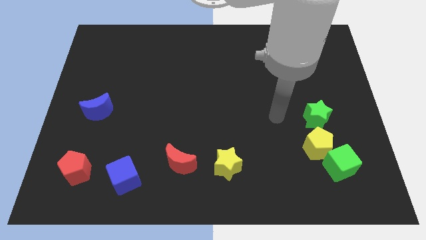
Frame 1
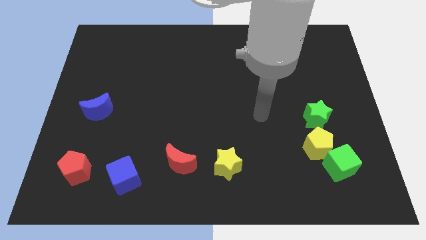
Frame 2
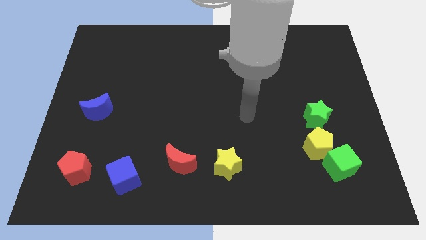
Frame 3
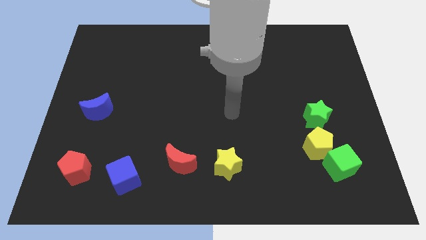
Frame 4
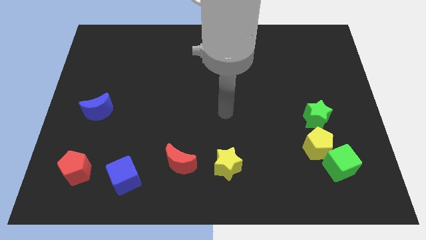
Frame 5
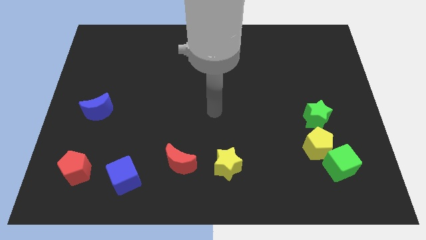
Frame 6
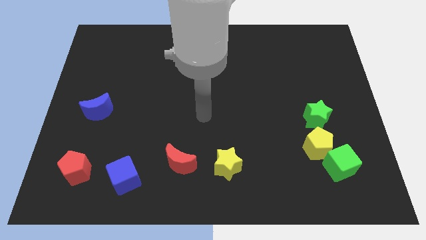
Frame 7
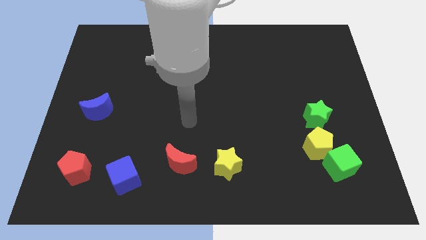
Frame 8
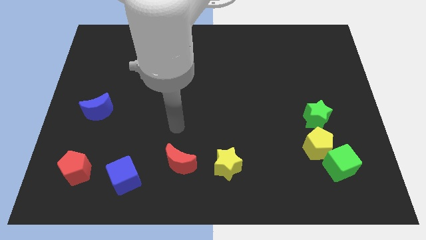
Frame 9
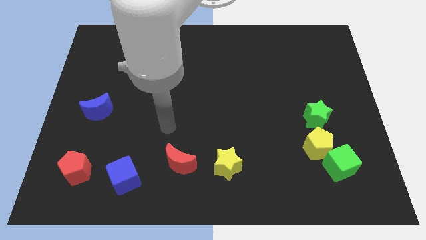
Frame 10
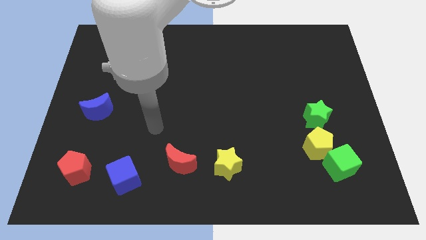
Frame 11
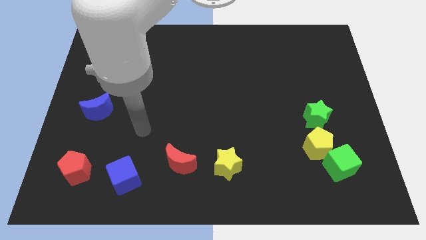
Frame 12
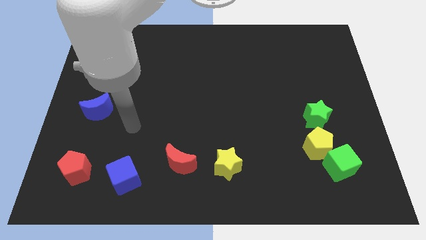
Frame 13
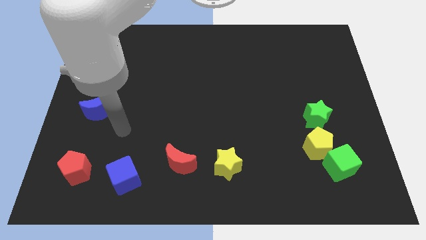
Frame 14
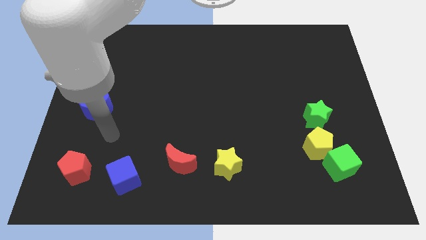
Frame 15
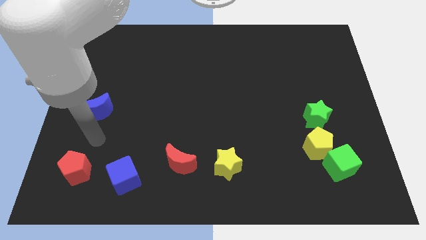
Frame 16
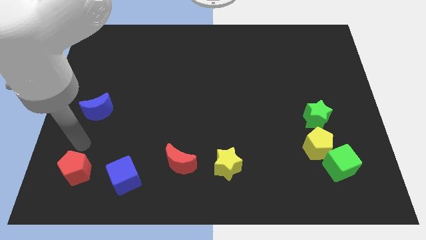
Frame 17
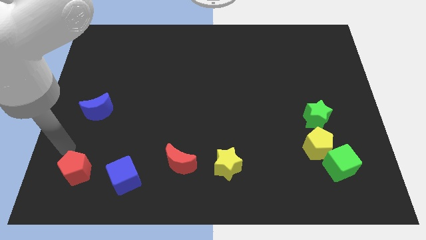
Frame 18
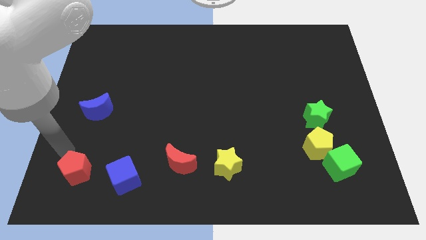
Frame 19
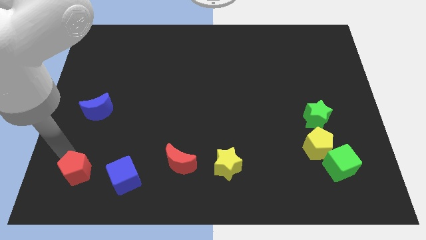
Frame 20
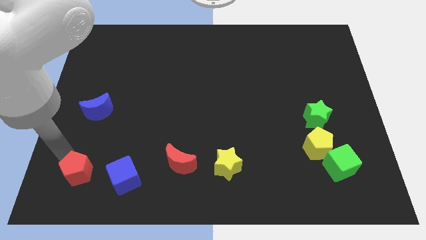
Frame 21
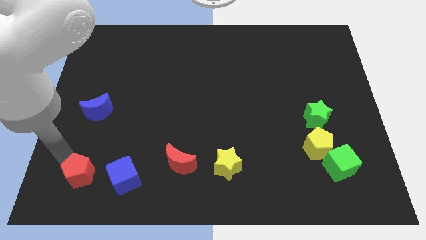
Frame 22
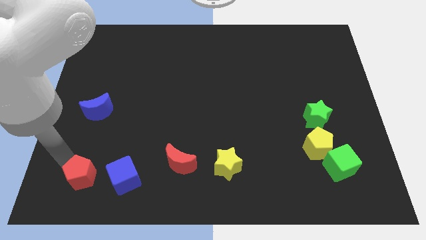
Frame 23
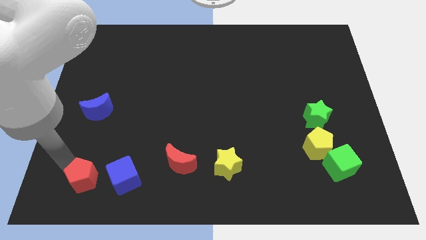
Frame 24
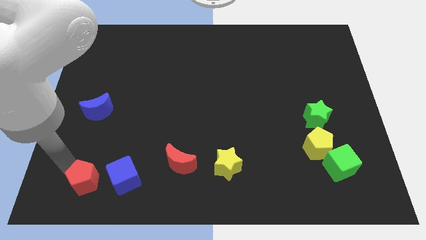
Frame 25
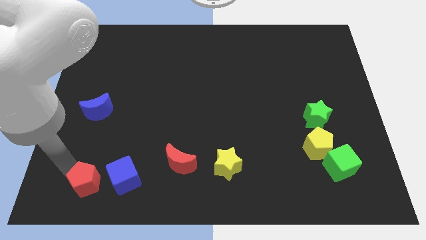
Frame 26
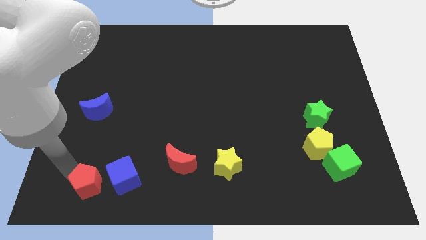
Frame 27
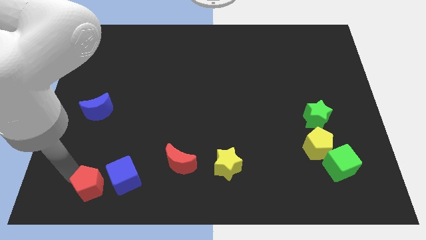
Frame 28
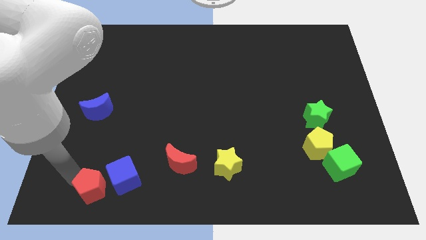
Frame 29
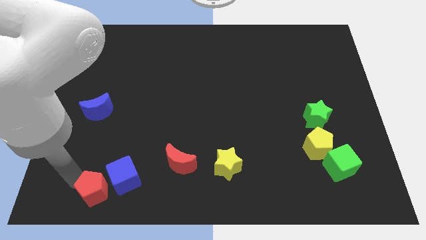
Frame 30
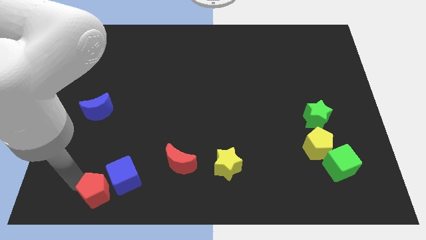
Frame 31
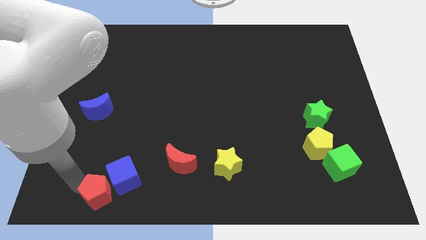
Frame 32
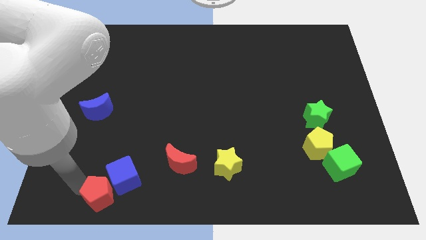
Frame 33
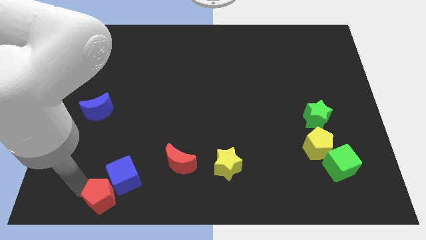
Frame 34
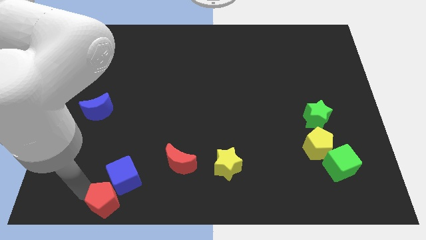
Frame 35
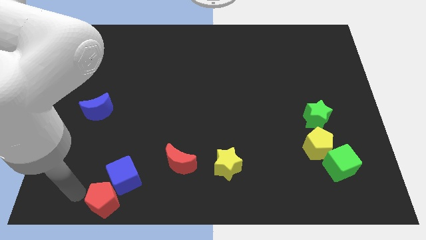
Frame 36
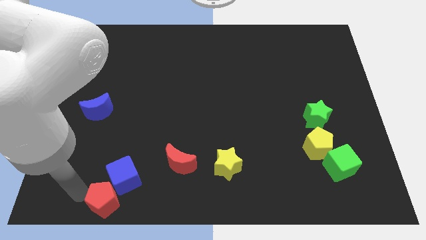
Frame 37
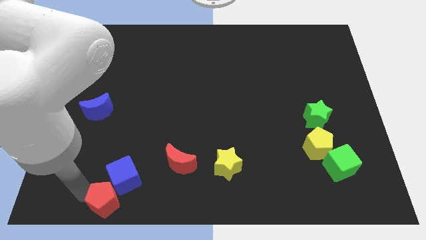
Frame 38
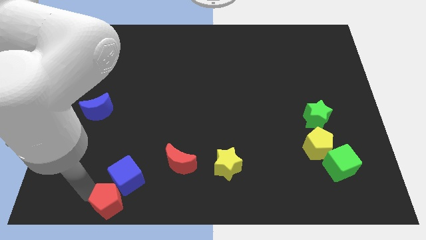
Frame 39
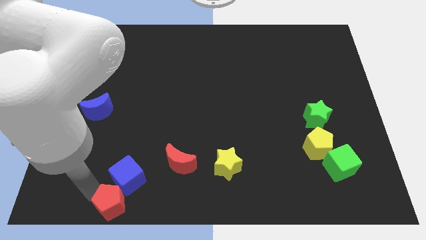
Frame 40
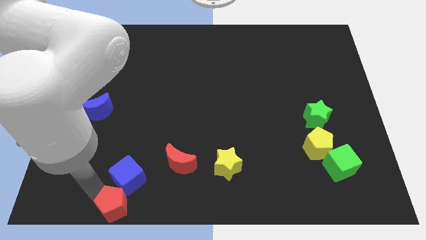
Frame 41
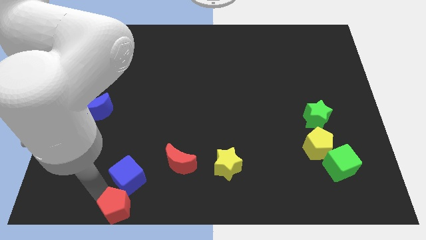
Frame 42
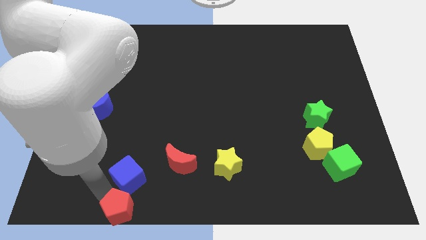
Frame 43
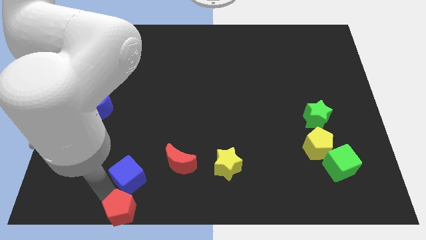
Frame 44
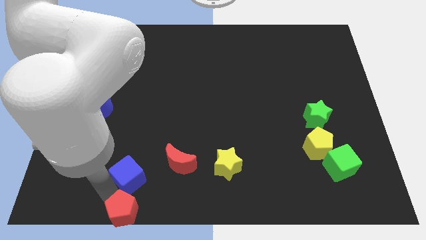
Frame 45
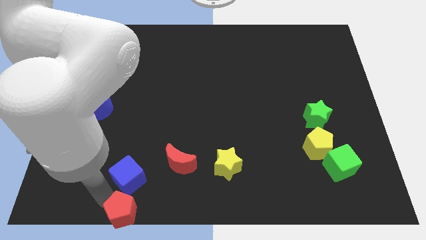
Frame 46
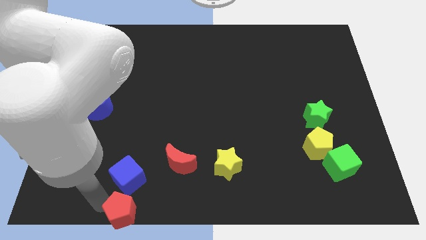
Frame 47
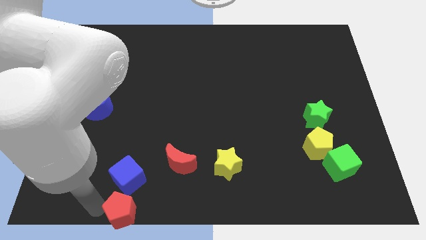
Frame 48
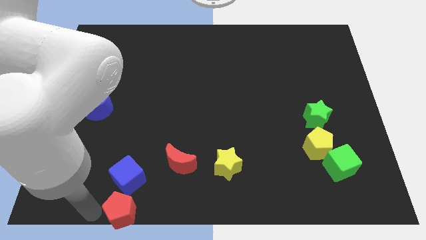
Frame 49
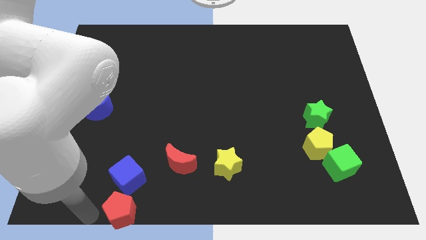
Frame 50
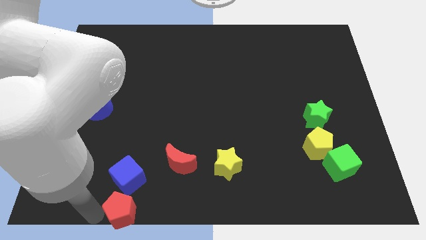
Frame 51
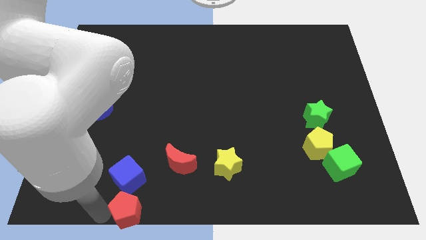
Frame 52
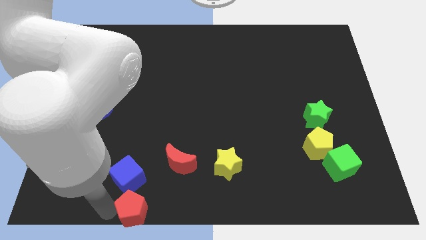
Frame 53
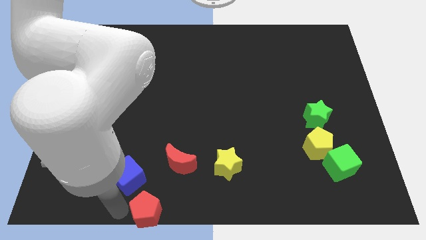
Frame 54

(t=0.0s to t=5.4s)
move the red pentagon to the bottom side

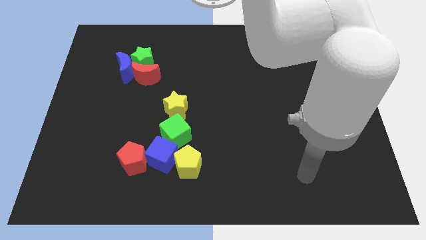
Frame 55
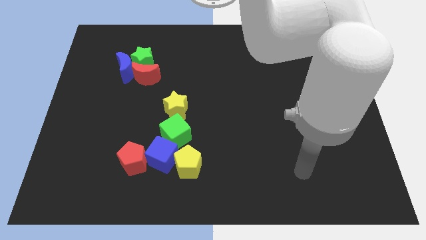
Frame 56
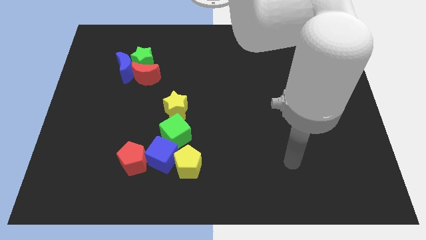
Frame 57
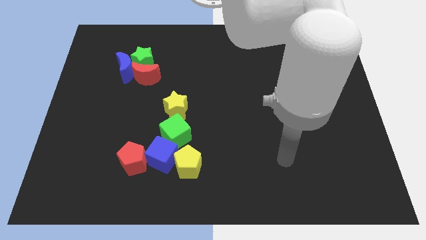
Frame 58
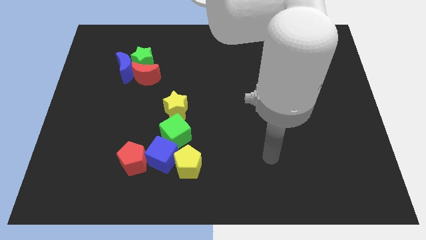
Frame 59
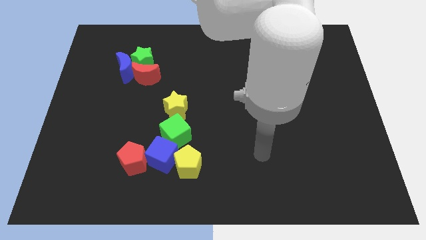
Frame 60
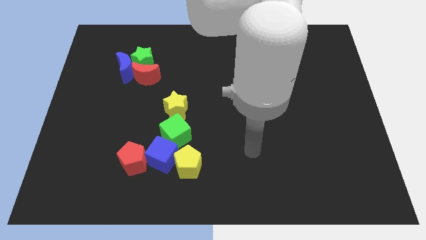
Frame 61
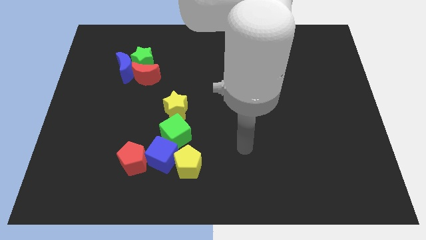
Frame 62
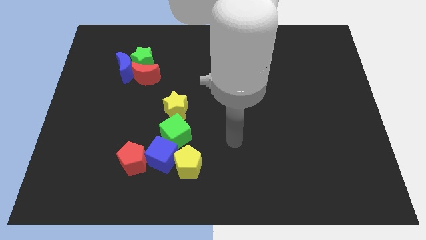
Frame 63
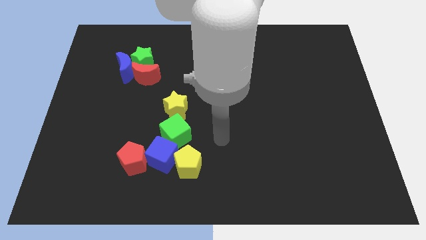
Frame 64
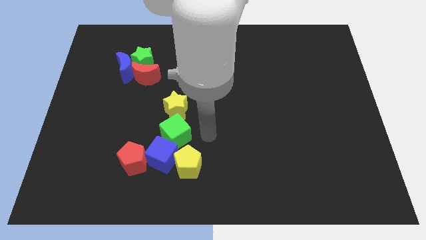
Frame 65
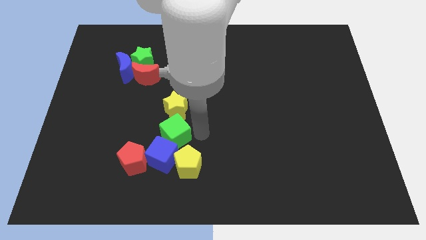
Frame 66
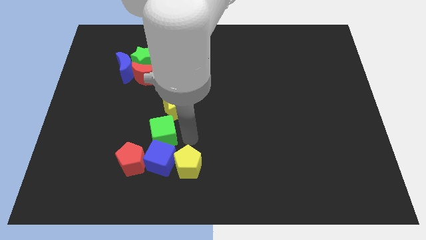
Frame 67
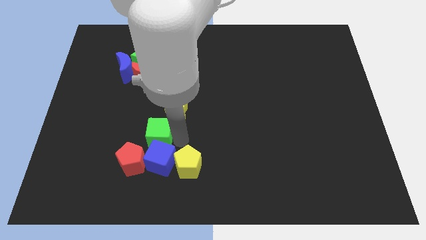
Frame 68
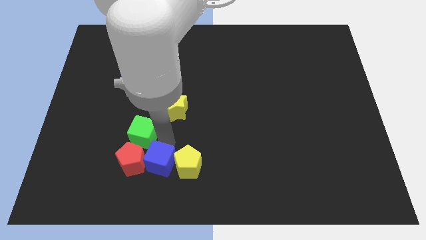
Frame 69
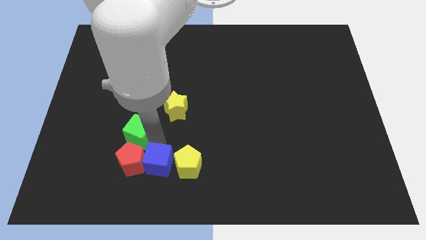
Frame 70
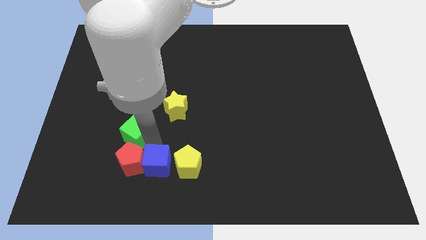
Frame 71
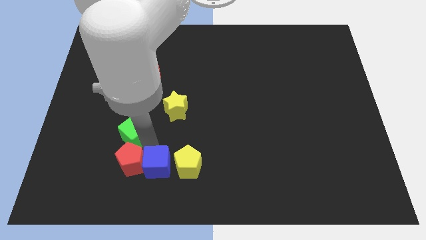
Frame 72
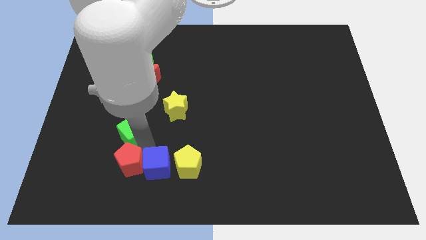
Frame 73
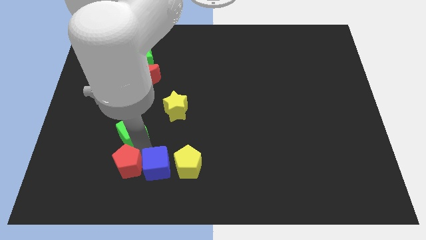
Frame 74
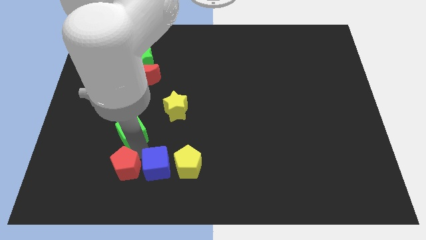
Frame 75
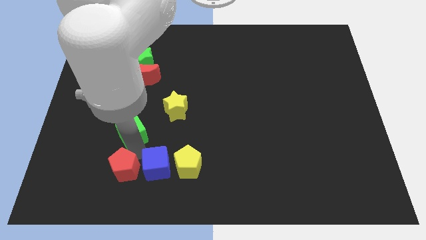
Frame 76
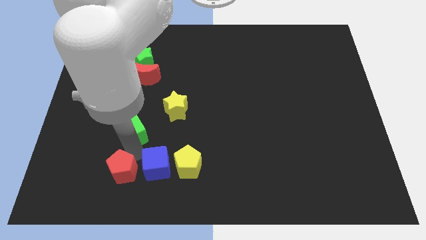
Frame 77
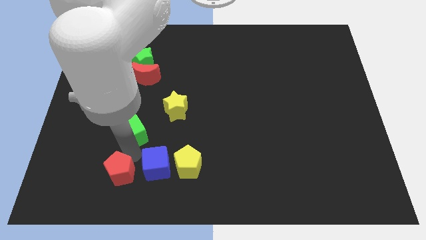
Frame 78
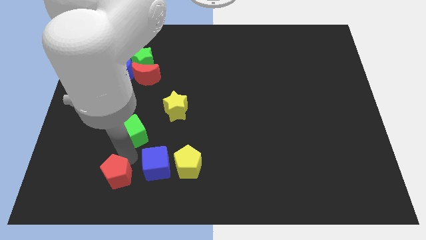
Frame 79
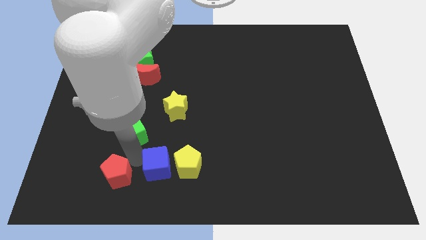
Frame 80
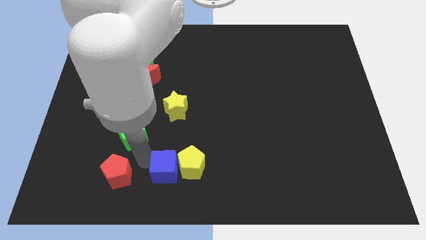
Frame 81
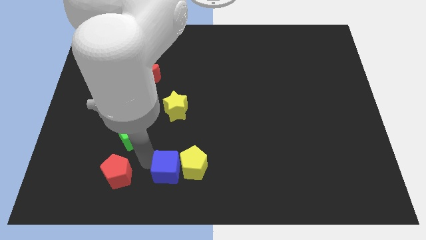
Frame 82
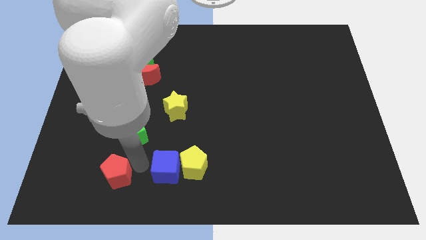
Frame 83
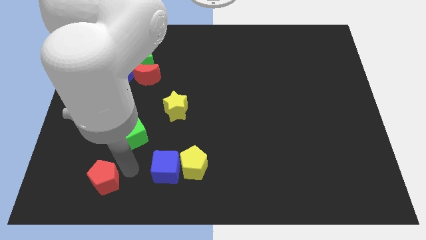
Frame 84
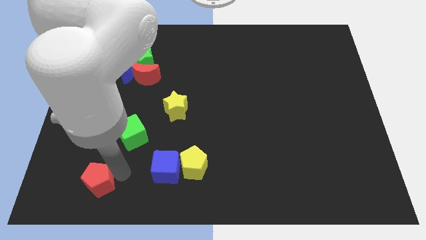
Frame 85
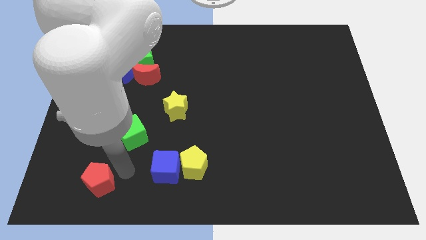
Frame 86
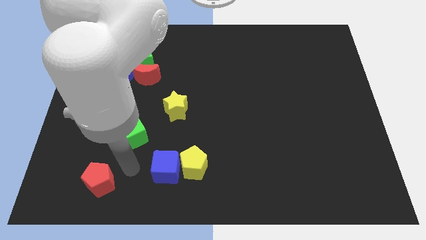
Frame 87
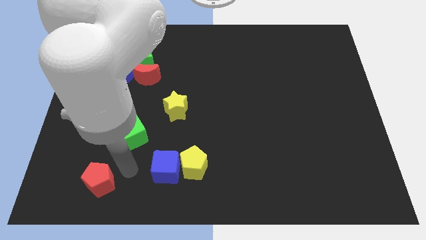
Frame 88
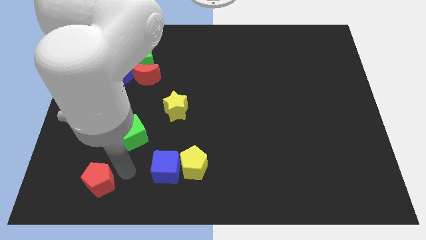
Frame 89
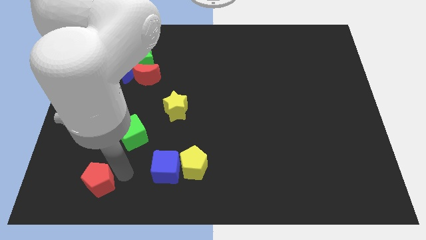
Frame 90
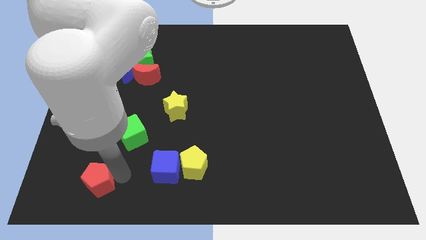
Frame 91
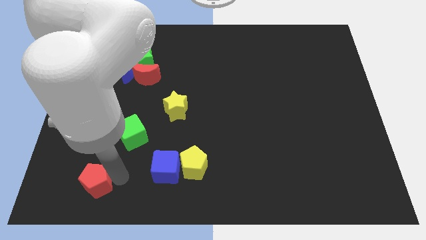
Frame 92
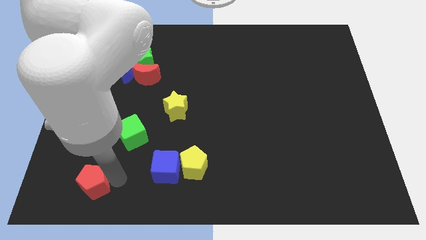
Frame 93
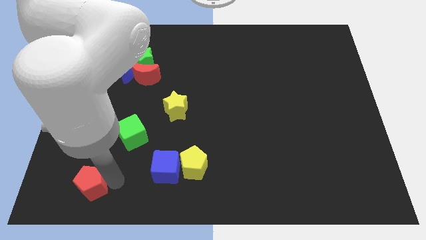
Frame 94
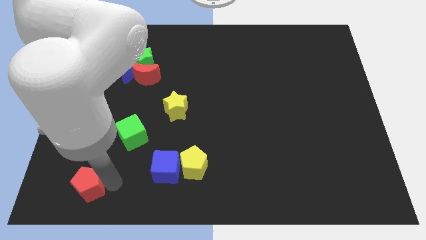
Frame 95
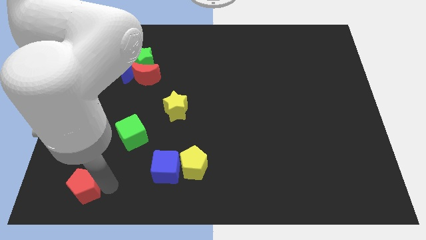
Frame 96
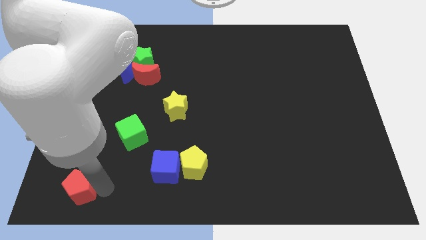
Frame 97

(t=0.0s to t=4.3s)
move the red pentagon to the bottom left
